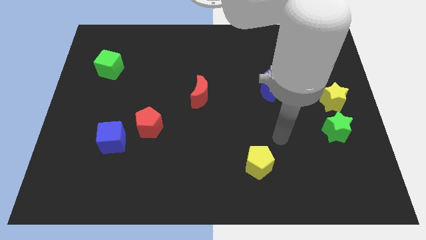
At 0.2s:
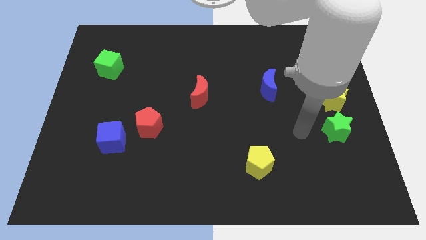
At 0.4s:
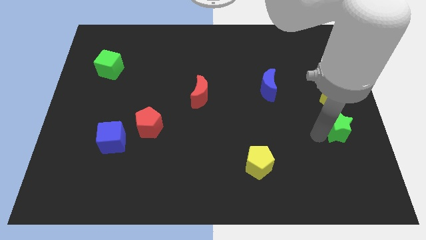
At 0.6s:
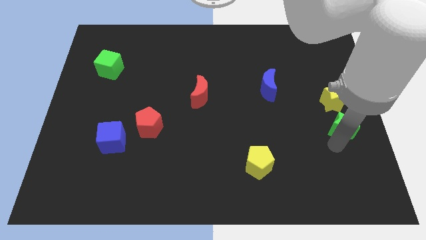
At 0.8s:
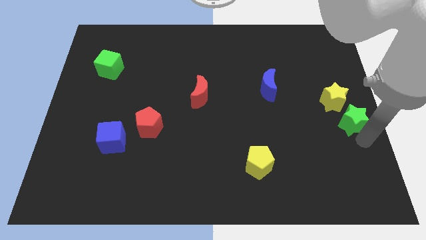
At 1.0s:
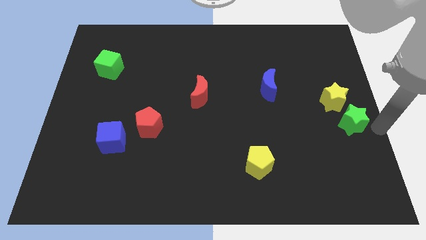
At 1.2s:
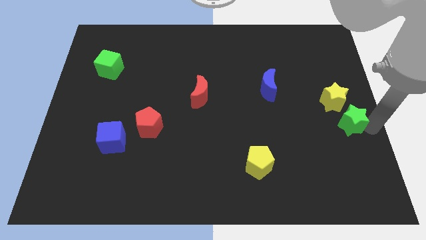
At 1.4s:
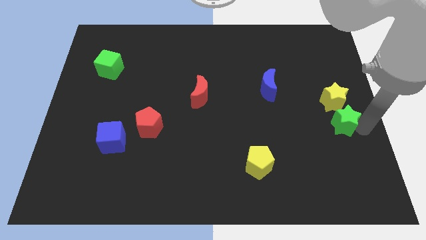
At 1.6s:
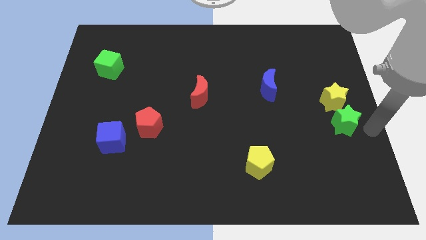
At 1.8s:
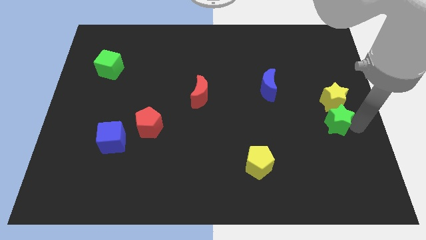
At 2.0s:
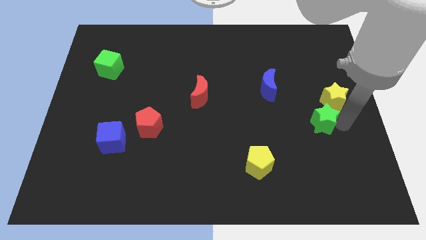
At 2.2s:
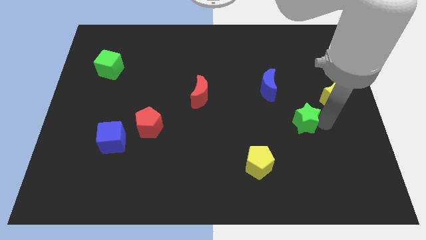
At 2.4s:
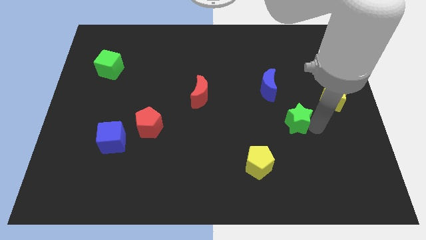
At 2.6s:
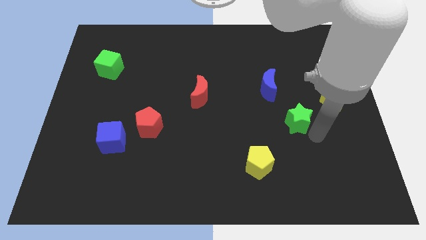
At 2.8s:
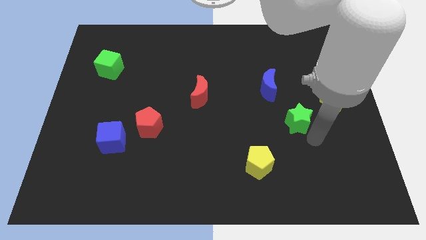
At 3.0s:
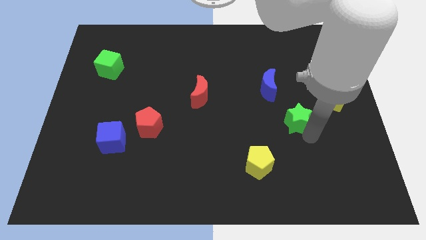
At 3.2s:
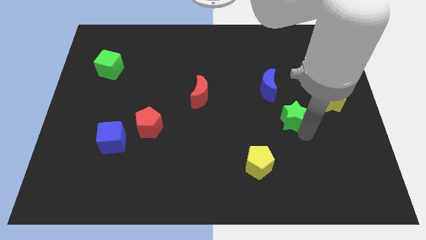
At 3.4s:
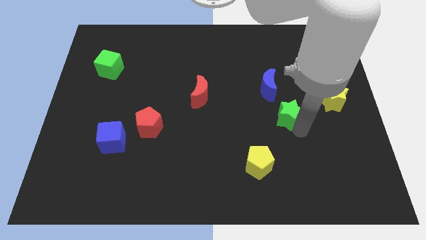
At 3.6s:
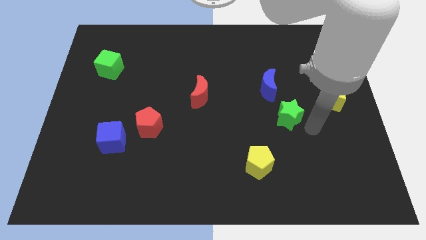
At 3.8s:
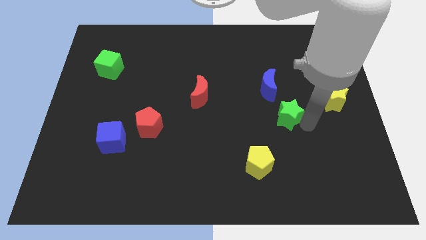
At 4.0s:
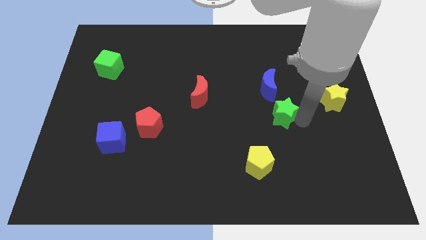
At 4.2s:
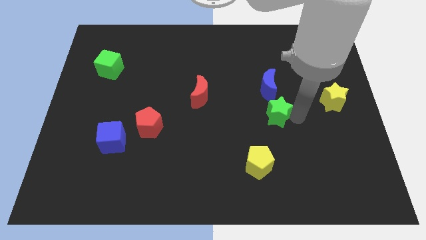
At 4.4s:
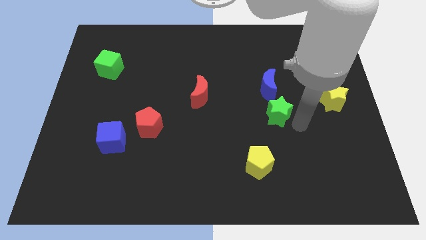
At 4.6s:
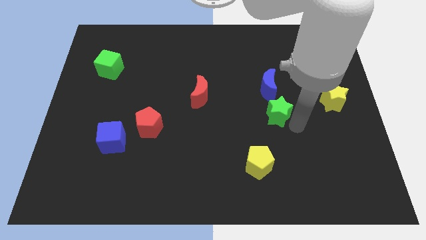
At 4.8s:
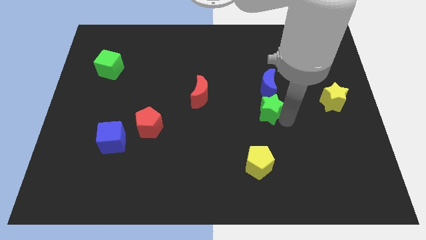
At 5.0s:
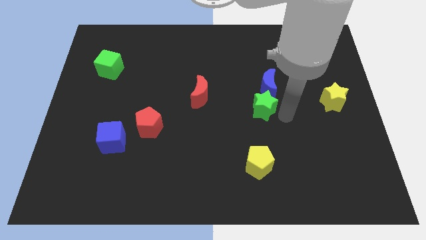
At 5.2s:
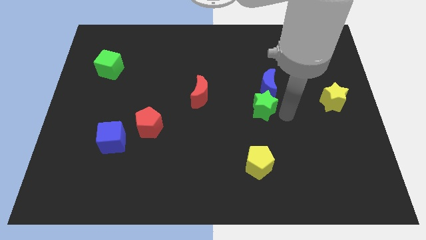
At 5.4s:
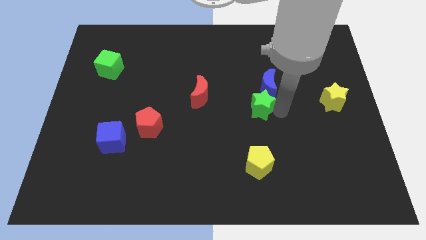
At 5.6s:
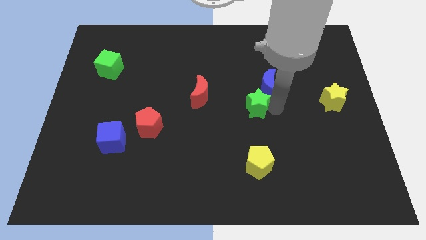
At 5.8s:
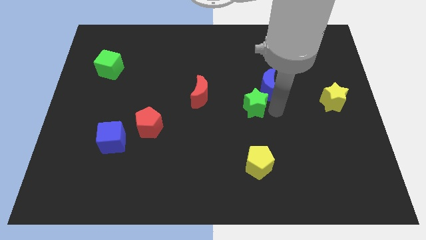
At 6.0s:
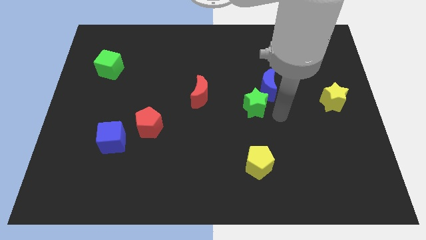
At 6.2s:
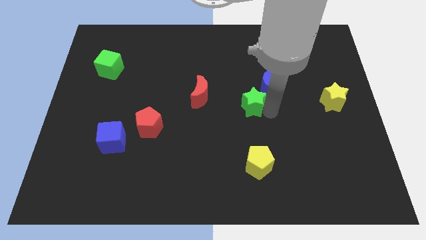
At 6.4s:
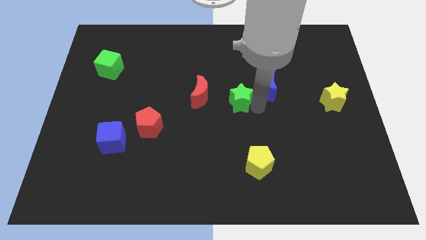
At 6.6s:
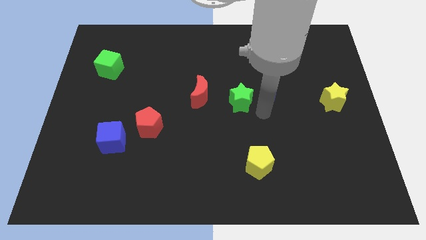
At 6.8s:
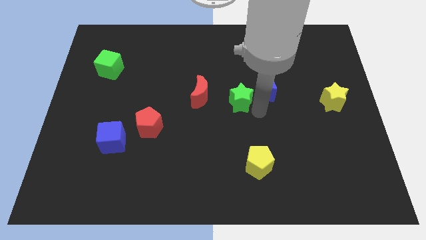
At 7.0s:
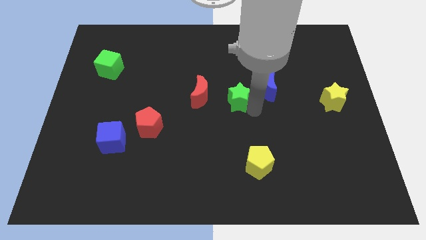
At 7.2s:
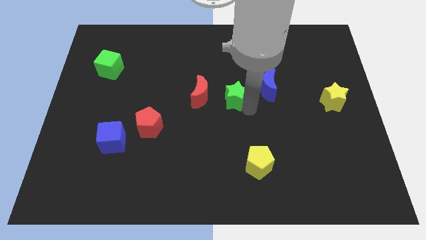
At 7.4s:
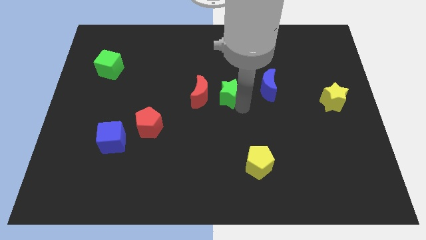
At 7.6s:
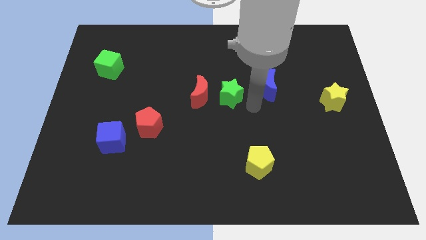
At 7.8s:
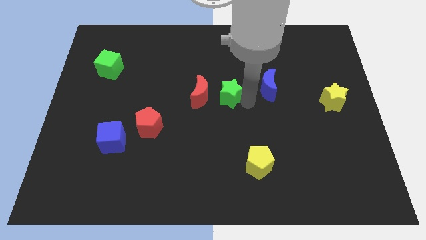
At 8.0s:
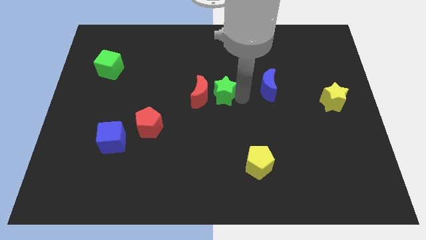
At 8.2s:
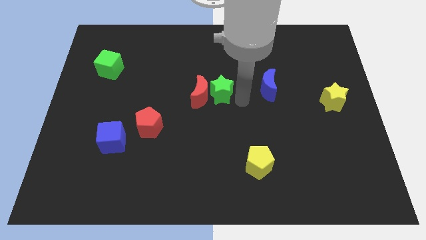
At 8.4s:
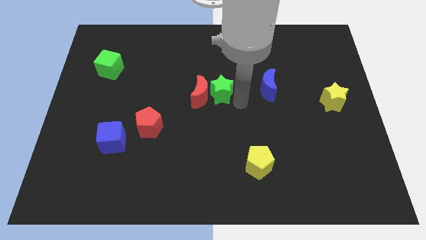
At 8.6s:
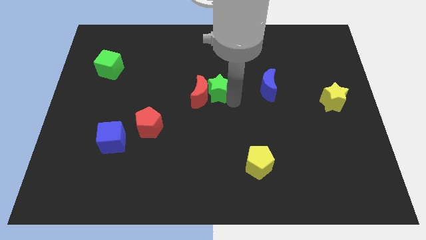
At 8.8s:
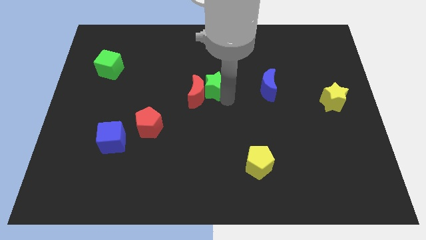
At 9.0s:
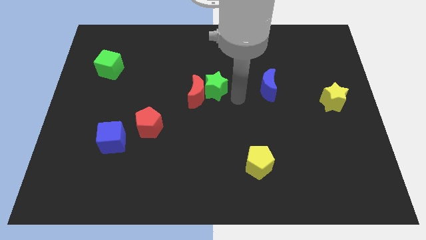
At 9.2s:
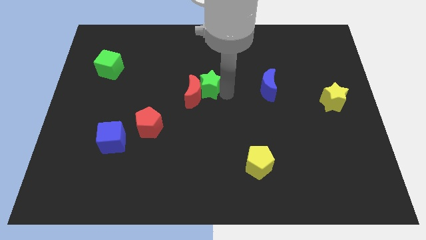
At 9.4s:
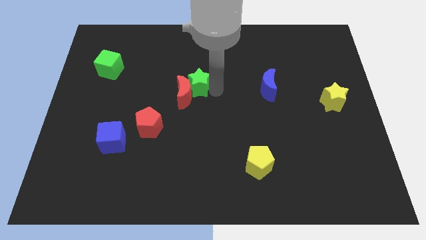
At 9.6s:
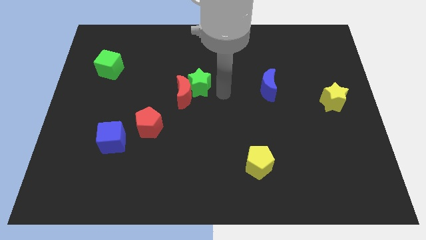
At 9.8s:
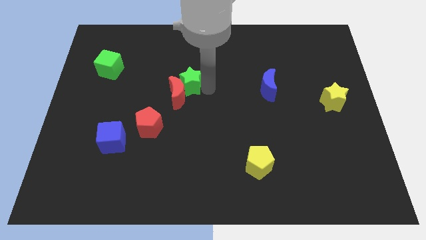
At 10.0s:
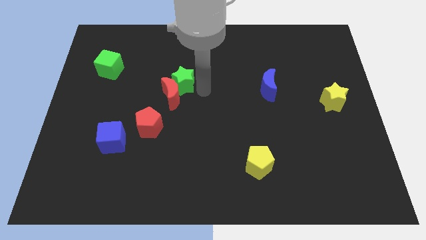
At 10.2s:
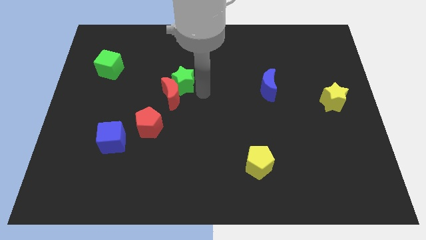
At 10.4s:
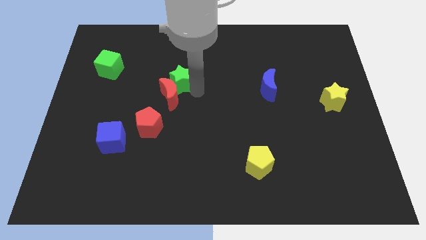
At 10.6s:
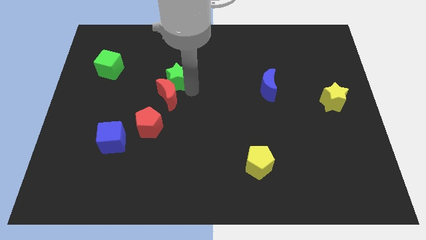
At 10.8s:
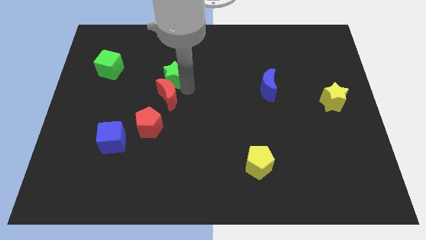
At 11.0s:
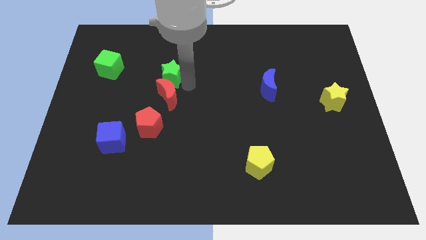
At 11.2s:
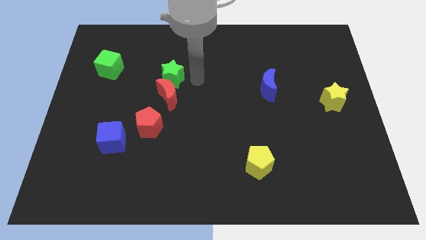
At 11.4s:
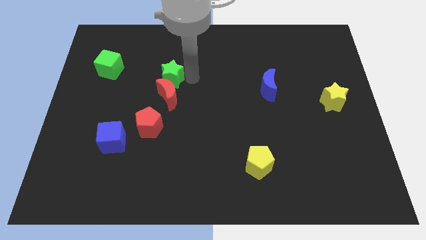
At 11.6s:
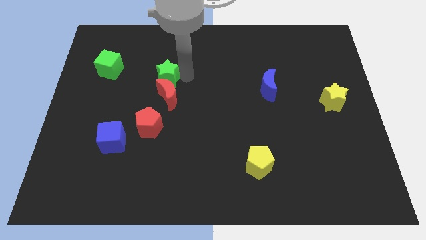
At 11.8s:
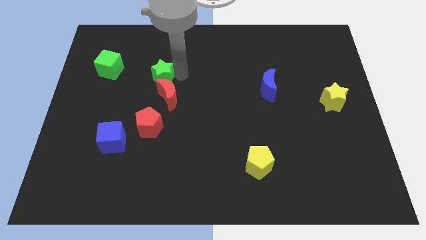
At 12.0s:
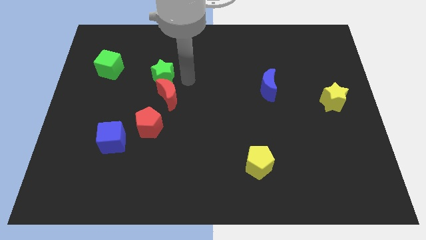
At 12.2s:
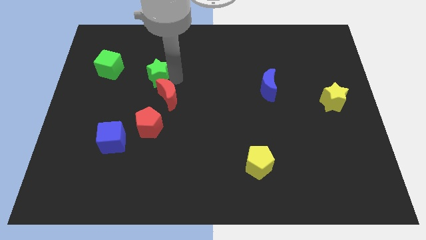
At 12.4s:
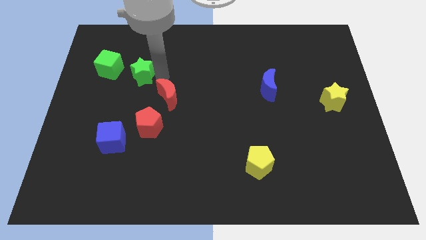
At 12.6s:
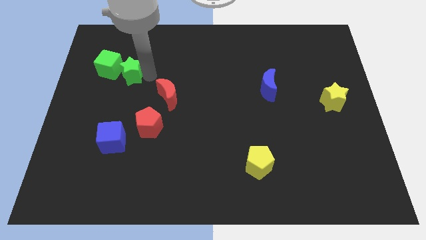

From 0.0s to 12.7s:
move the green star close to the green cube

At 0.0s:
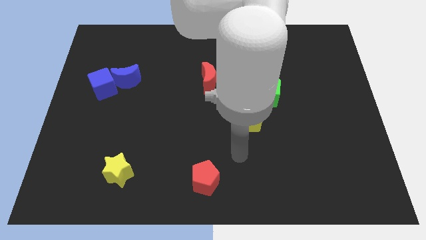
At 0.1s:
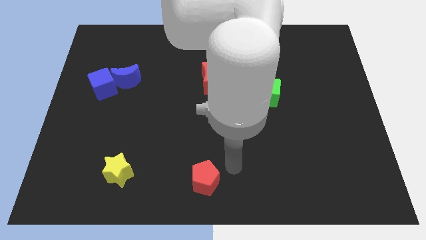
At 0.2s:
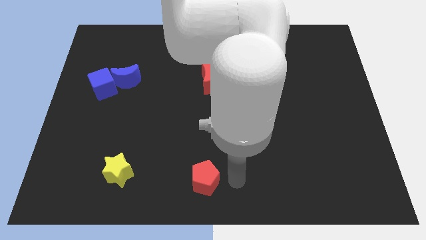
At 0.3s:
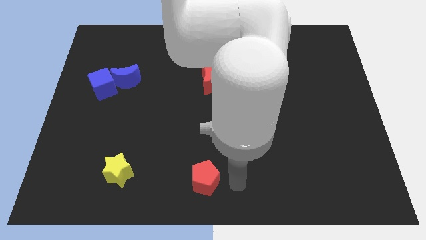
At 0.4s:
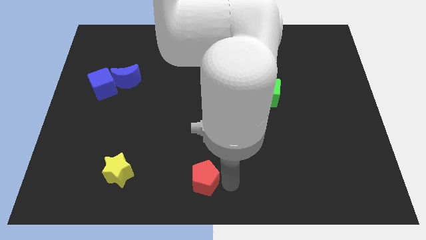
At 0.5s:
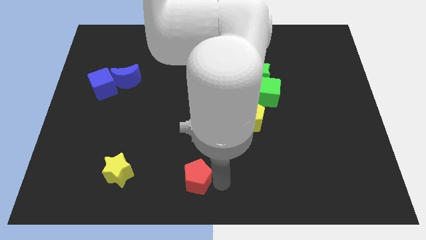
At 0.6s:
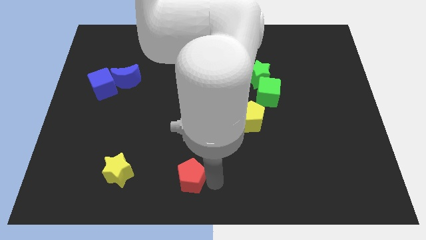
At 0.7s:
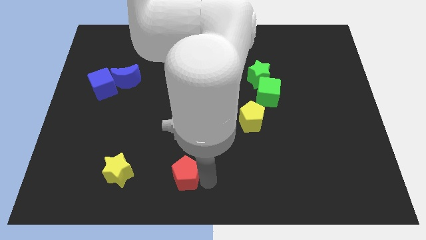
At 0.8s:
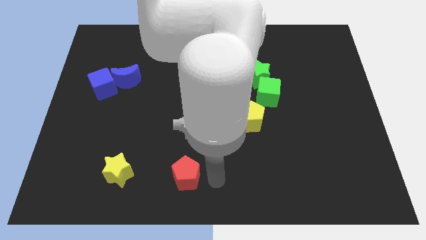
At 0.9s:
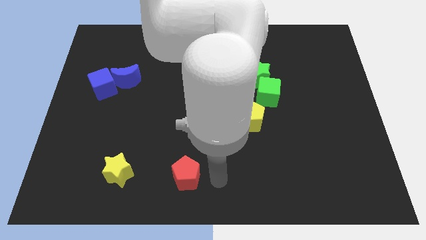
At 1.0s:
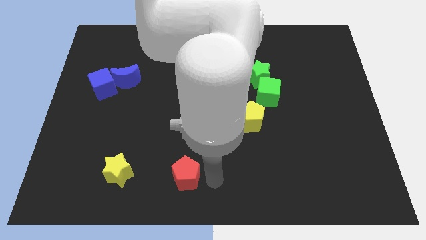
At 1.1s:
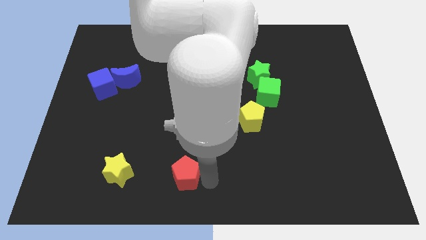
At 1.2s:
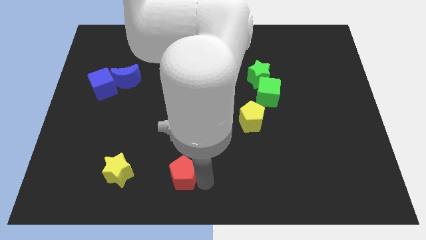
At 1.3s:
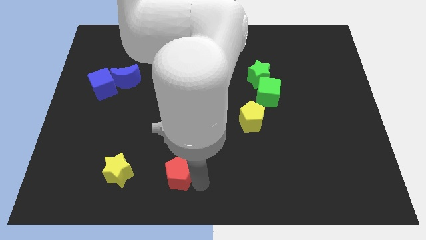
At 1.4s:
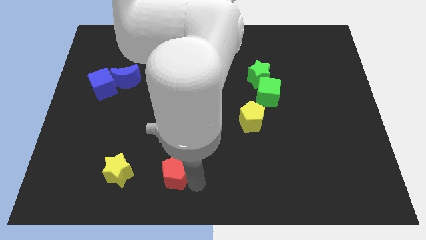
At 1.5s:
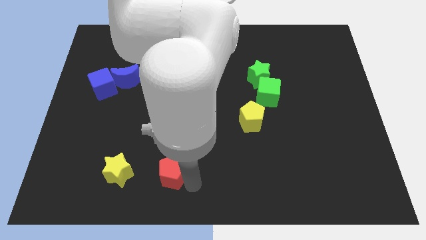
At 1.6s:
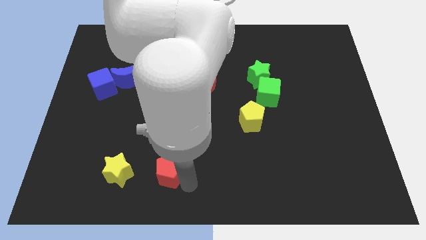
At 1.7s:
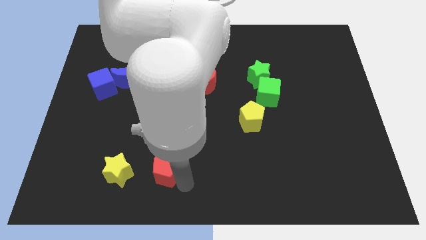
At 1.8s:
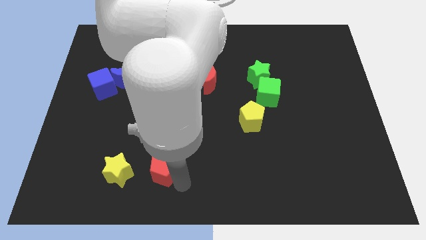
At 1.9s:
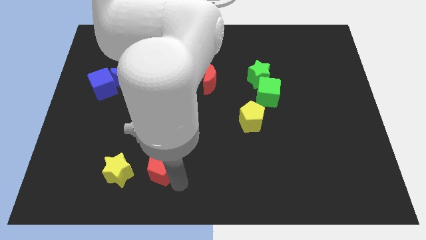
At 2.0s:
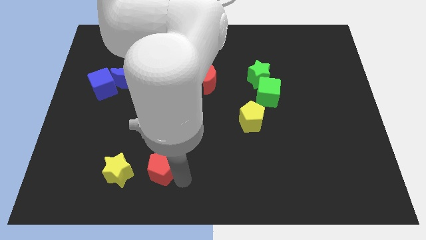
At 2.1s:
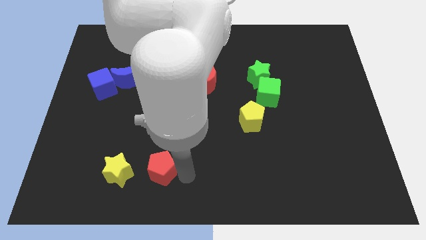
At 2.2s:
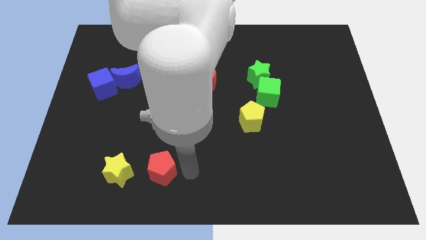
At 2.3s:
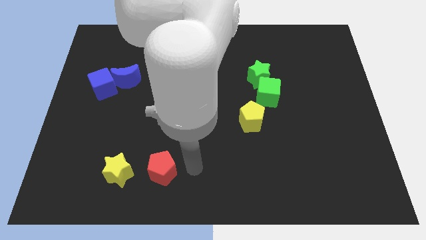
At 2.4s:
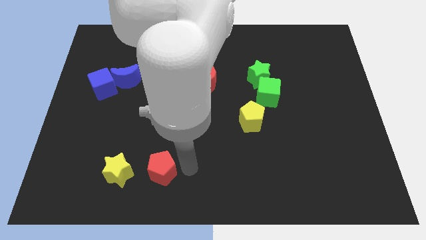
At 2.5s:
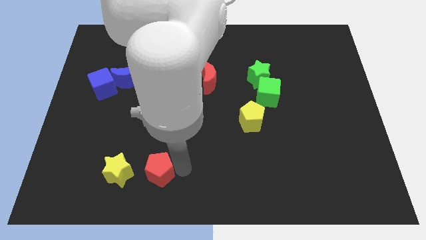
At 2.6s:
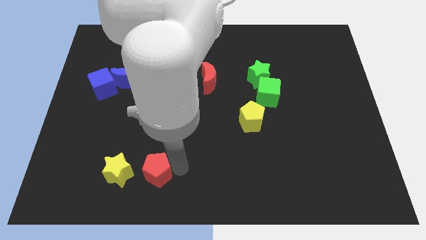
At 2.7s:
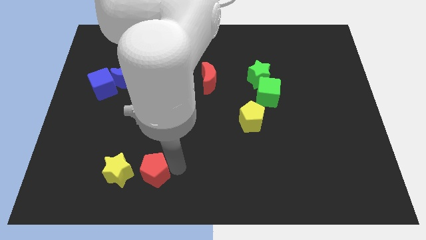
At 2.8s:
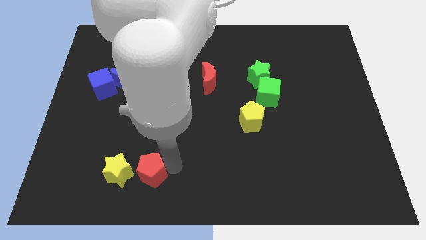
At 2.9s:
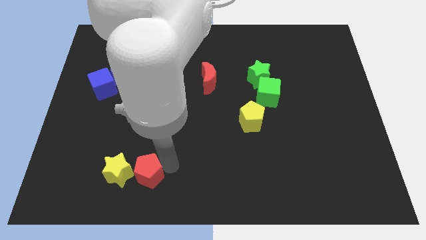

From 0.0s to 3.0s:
push the red pentagon close to the yellow star
